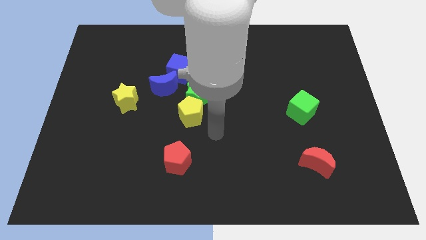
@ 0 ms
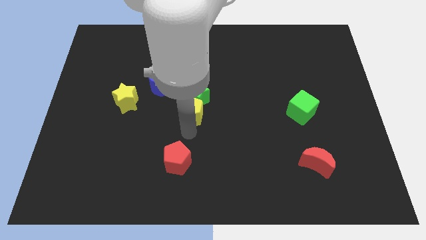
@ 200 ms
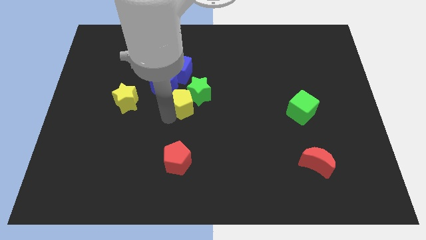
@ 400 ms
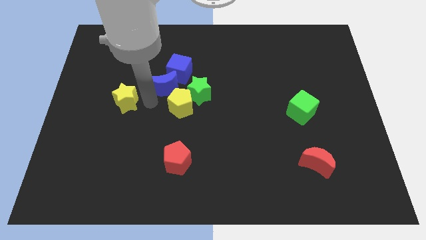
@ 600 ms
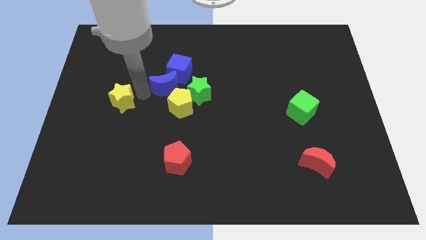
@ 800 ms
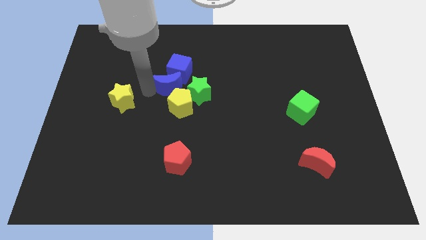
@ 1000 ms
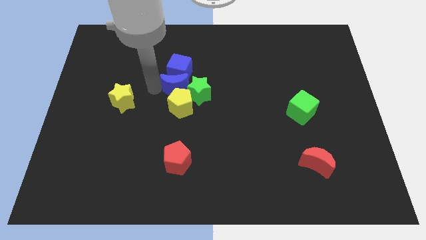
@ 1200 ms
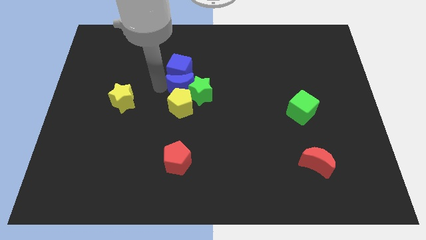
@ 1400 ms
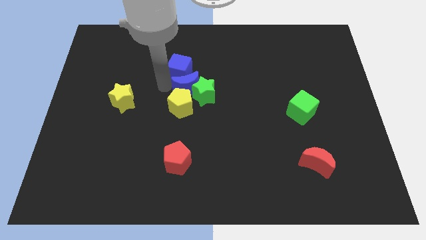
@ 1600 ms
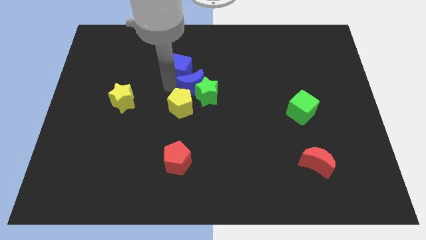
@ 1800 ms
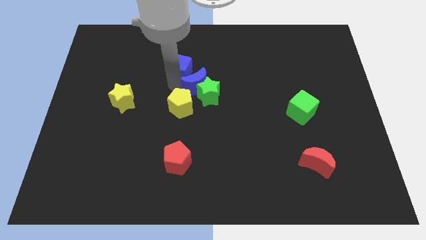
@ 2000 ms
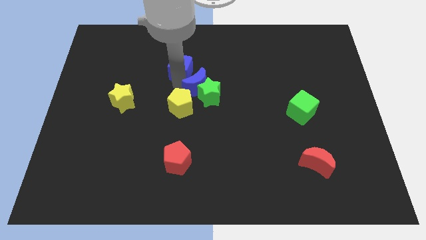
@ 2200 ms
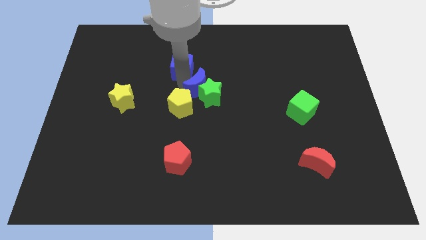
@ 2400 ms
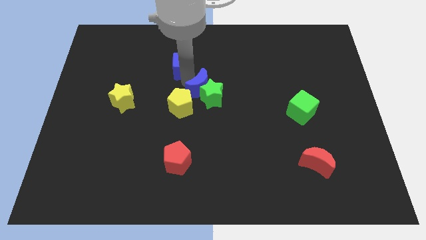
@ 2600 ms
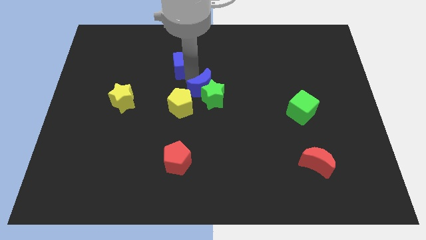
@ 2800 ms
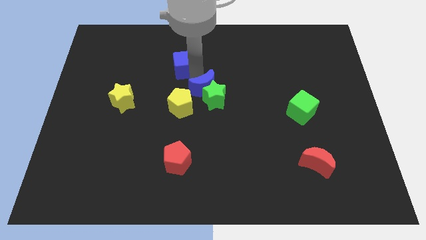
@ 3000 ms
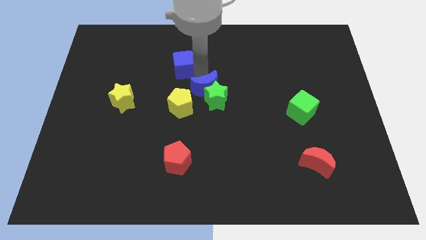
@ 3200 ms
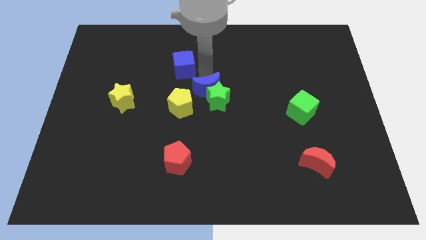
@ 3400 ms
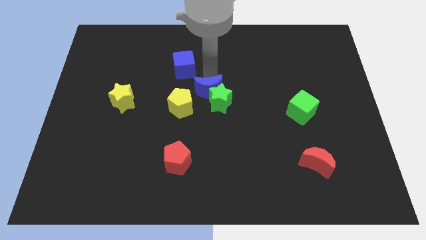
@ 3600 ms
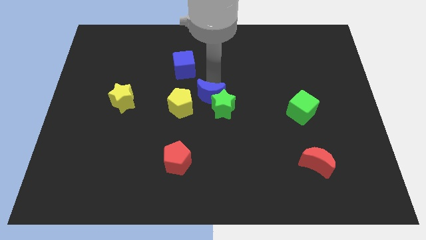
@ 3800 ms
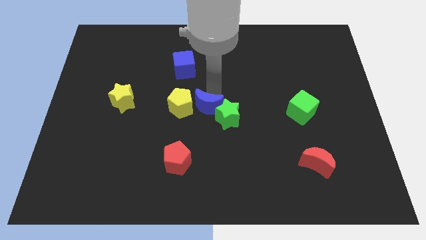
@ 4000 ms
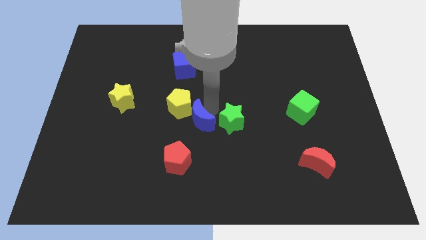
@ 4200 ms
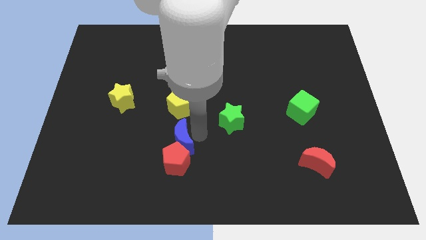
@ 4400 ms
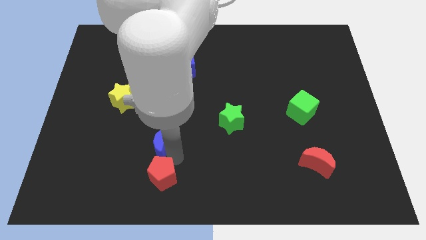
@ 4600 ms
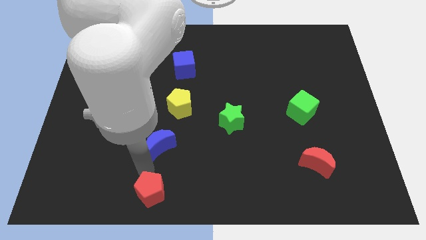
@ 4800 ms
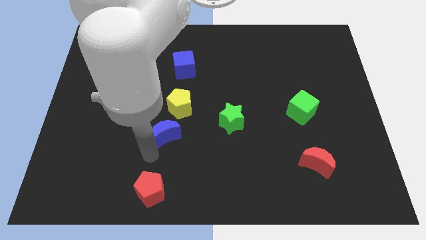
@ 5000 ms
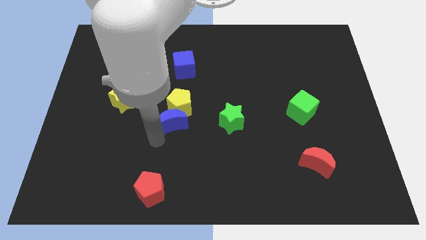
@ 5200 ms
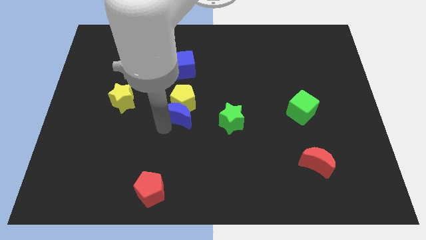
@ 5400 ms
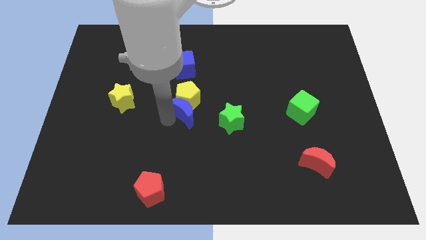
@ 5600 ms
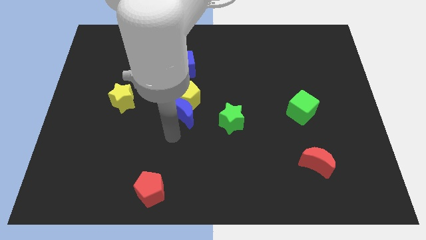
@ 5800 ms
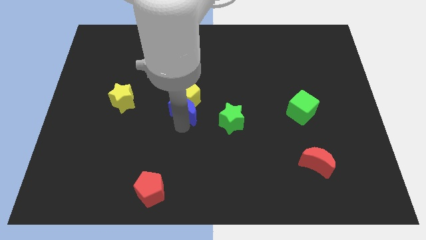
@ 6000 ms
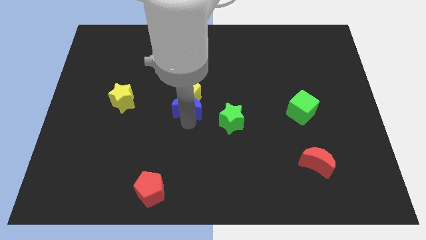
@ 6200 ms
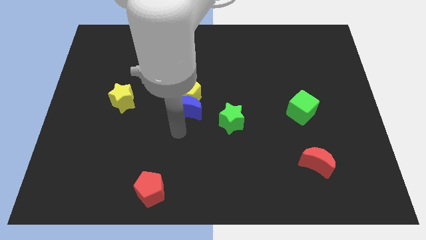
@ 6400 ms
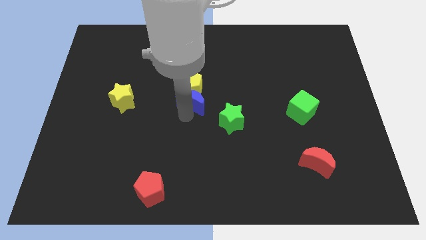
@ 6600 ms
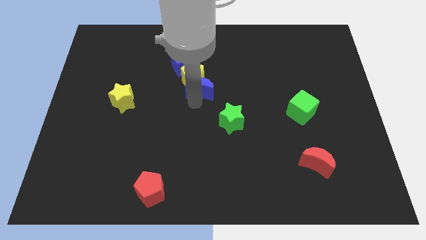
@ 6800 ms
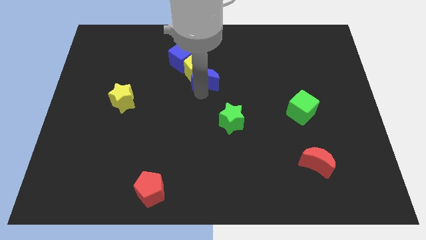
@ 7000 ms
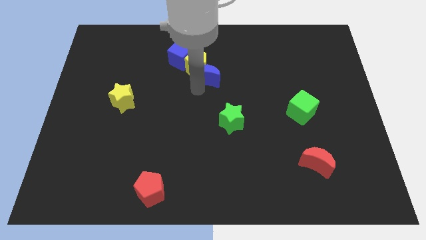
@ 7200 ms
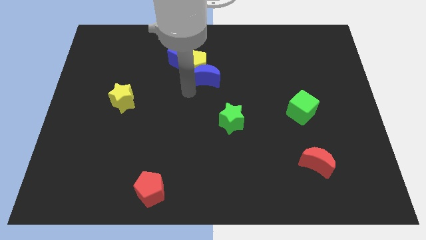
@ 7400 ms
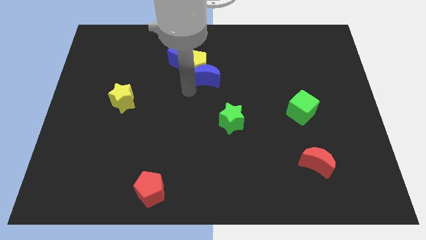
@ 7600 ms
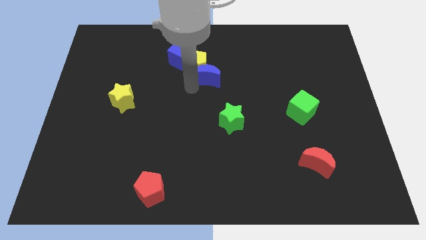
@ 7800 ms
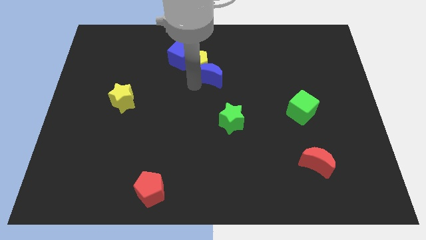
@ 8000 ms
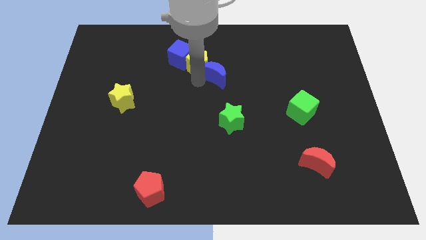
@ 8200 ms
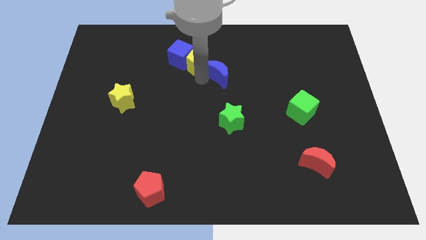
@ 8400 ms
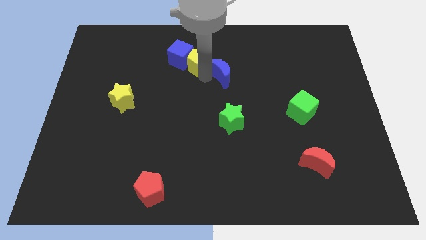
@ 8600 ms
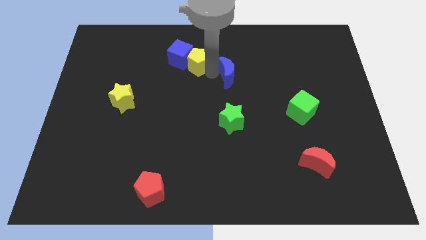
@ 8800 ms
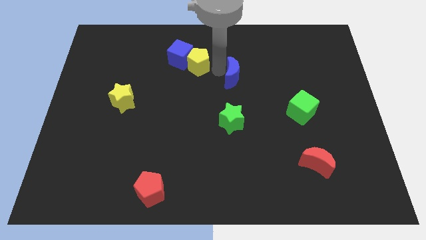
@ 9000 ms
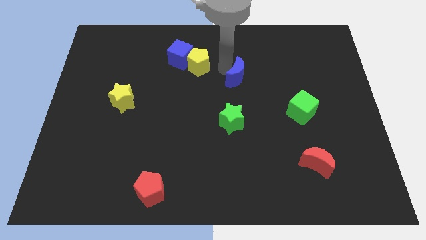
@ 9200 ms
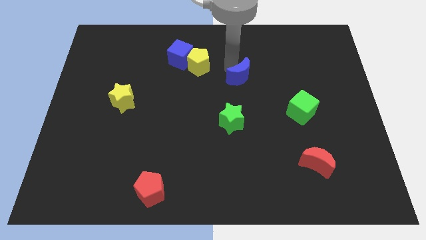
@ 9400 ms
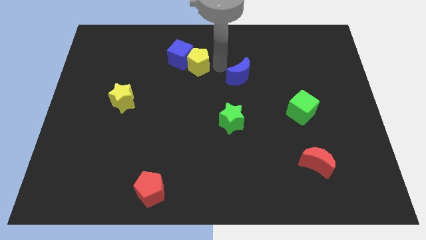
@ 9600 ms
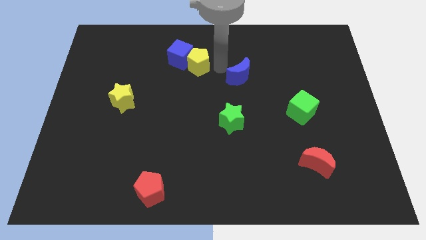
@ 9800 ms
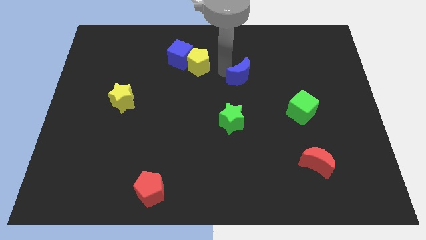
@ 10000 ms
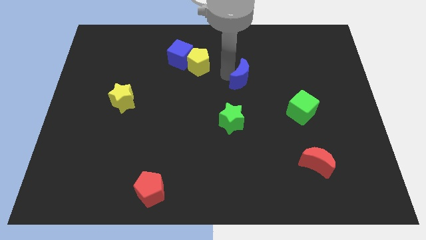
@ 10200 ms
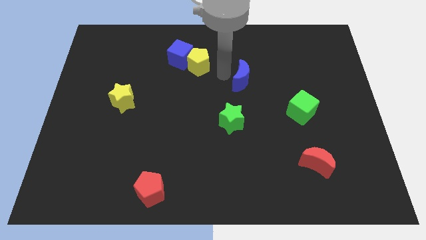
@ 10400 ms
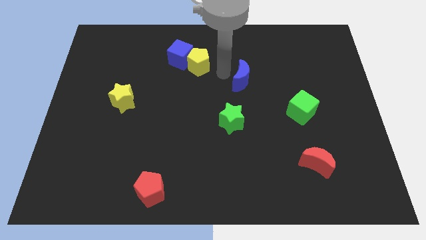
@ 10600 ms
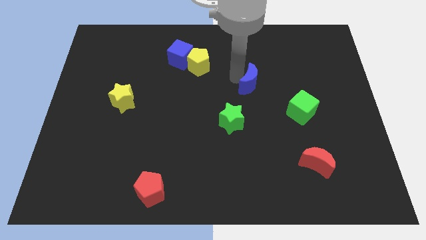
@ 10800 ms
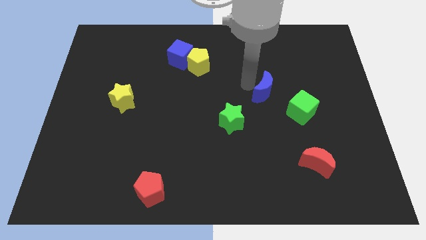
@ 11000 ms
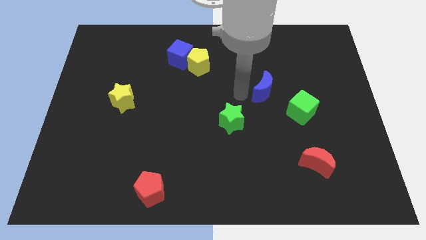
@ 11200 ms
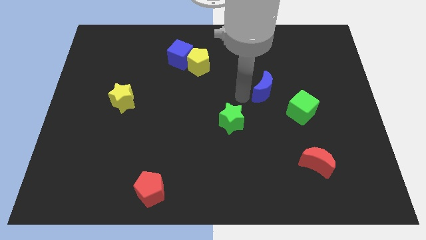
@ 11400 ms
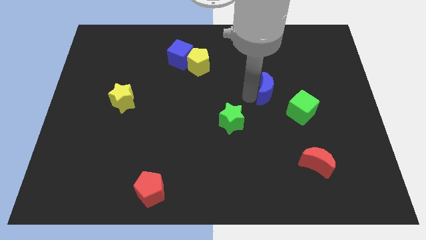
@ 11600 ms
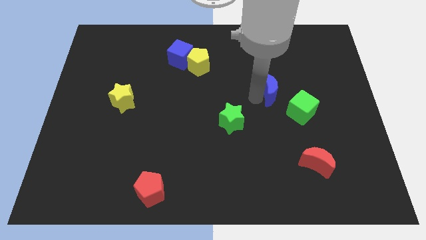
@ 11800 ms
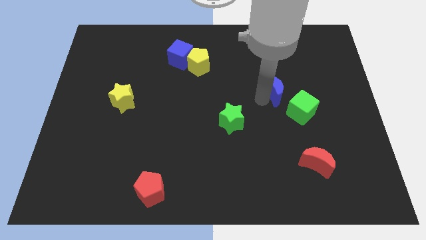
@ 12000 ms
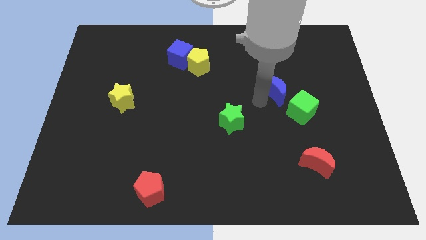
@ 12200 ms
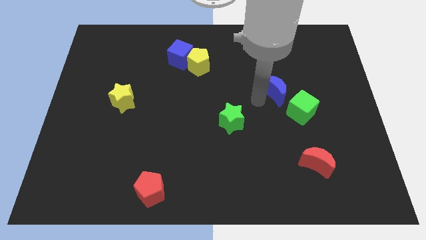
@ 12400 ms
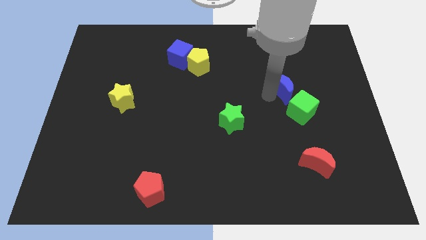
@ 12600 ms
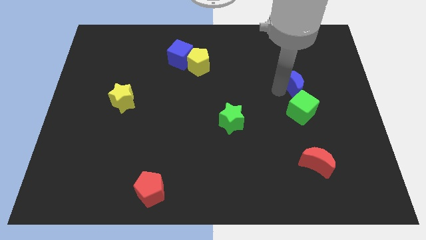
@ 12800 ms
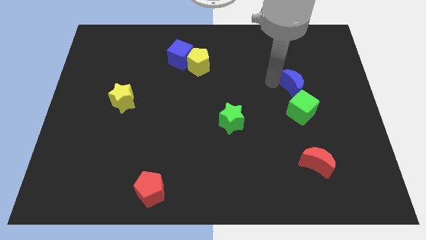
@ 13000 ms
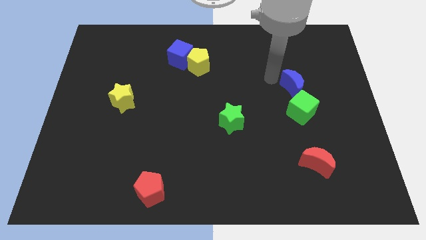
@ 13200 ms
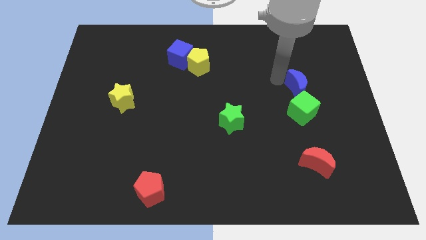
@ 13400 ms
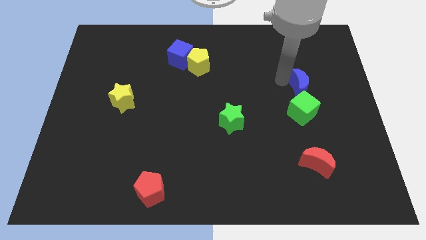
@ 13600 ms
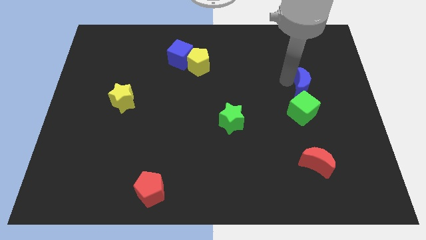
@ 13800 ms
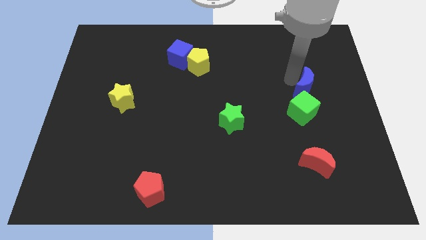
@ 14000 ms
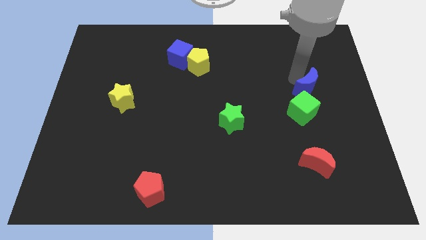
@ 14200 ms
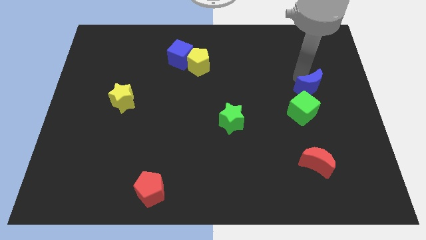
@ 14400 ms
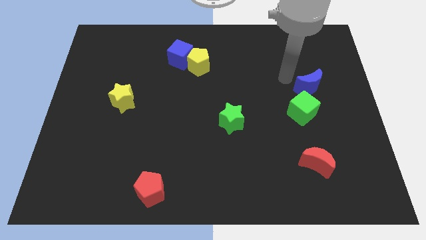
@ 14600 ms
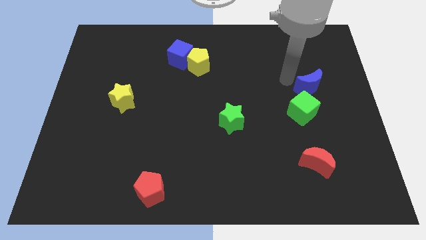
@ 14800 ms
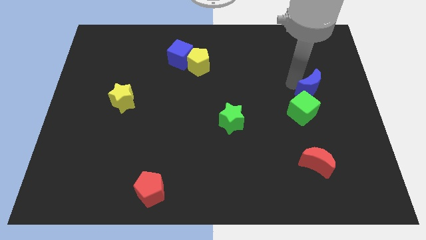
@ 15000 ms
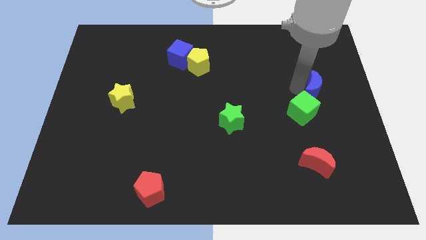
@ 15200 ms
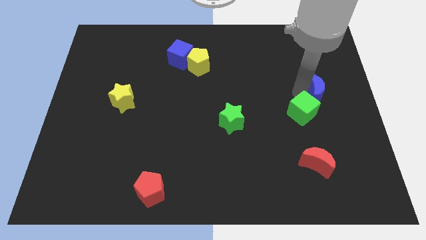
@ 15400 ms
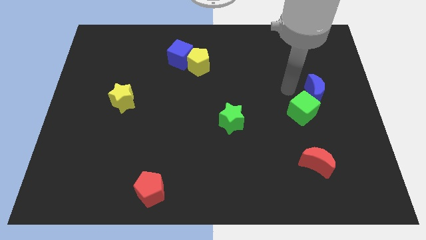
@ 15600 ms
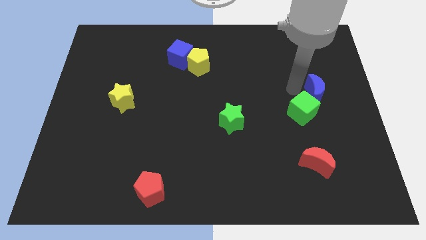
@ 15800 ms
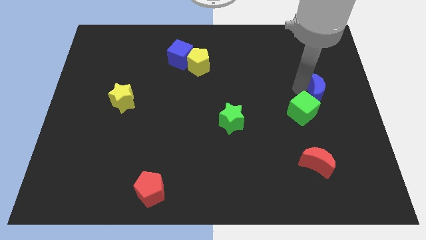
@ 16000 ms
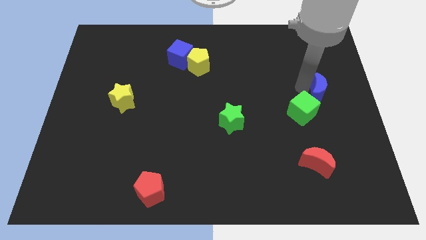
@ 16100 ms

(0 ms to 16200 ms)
move the blue moon to the center right
